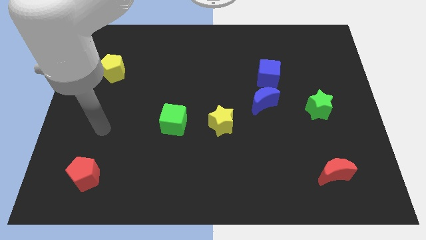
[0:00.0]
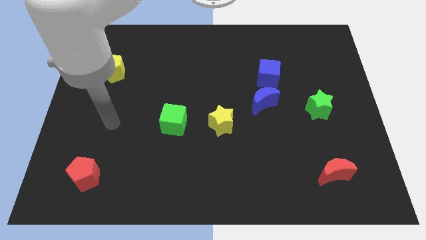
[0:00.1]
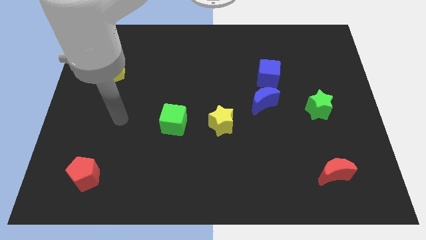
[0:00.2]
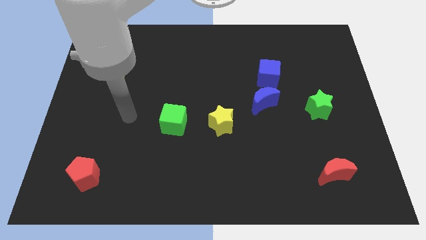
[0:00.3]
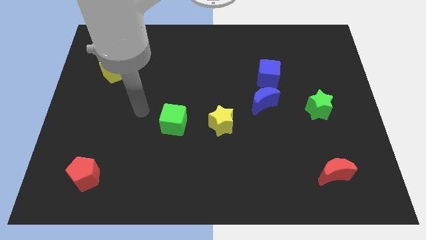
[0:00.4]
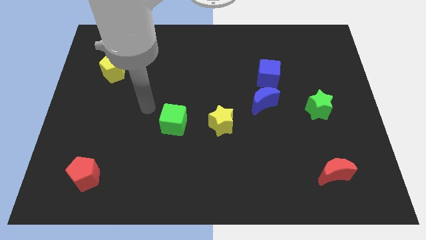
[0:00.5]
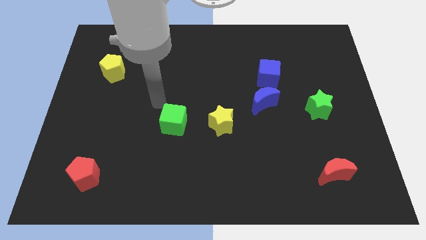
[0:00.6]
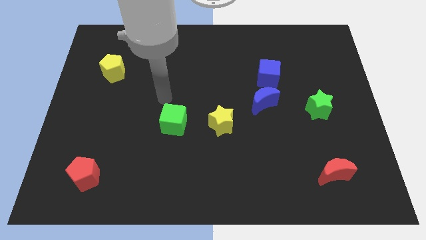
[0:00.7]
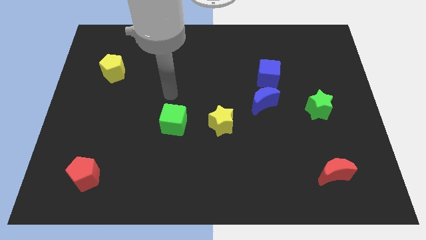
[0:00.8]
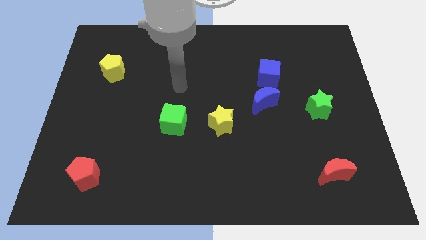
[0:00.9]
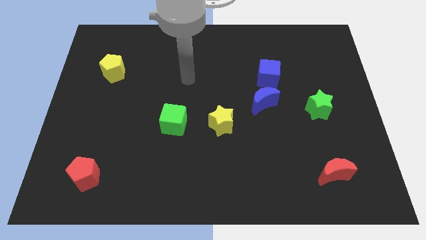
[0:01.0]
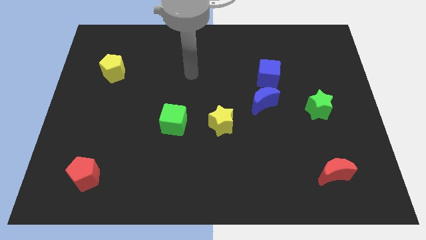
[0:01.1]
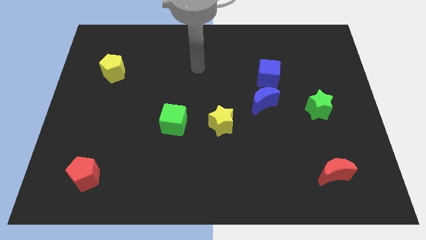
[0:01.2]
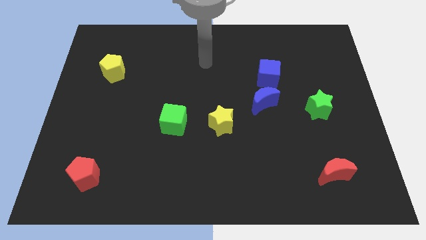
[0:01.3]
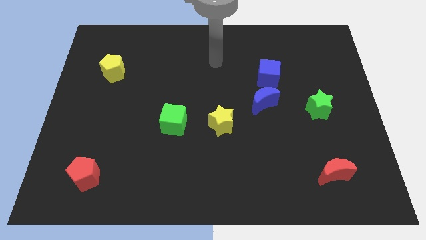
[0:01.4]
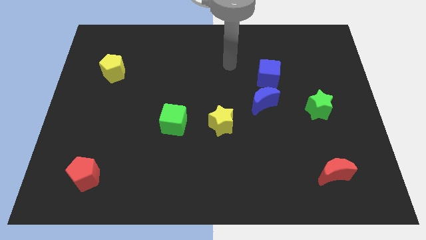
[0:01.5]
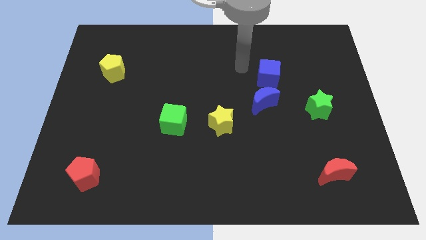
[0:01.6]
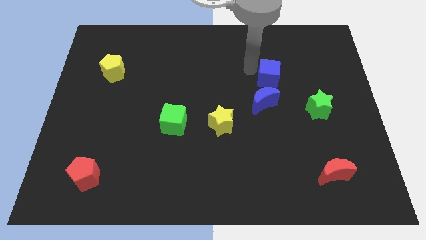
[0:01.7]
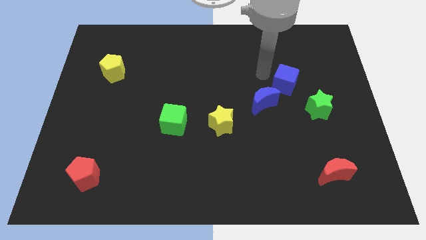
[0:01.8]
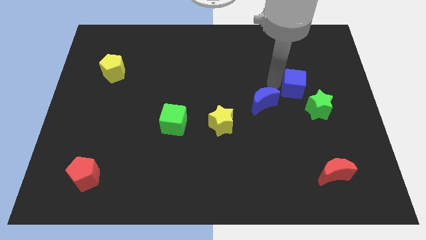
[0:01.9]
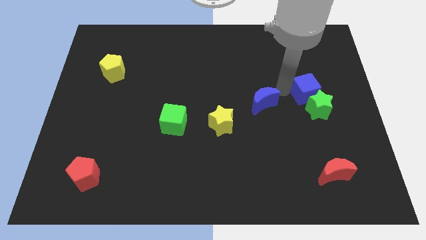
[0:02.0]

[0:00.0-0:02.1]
pull the blue moon apart from the blue cube

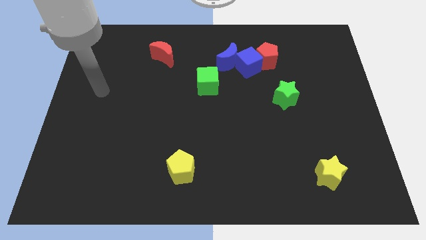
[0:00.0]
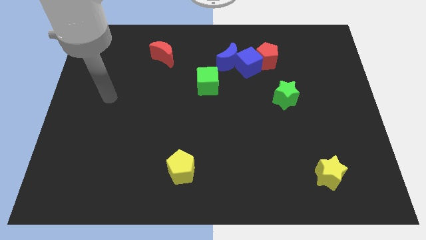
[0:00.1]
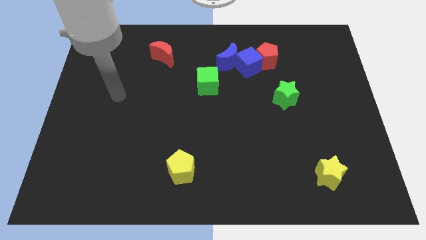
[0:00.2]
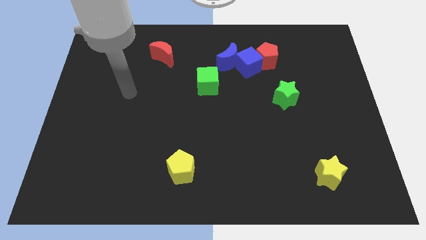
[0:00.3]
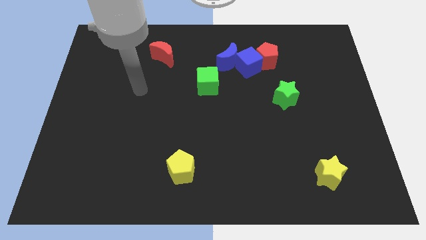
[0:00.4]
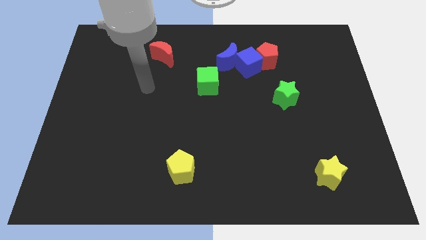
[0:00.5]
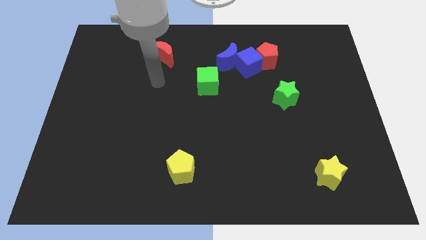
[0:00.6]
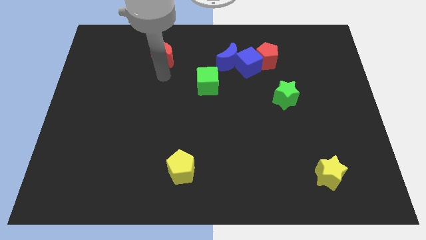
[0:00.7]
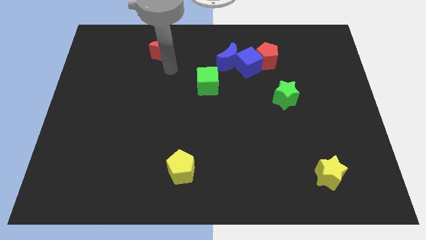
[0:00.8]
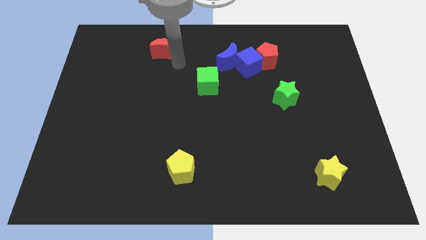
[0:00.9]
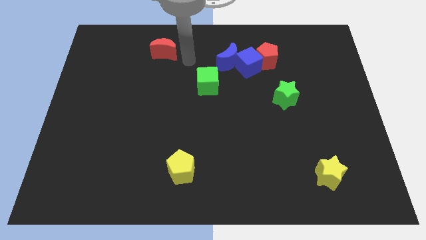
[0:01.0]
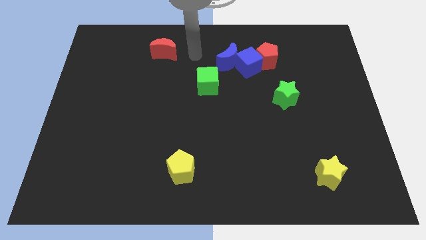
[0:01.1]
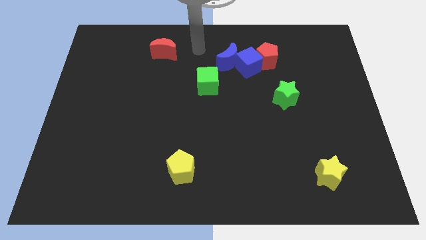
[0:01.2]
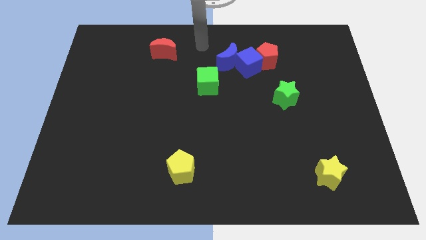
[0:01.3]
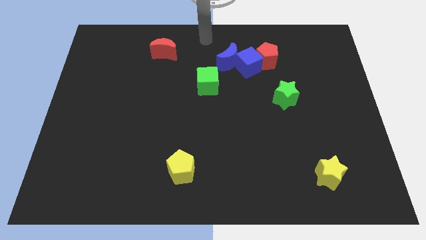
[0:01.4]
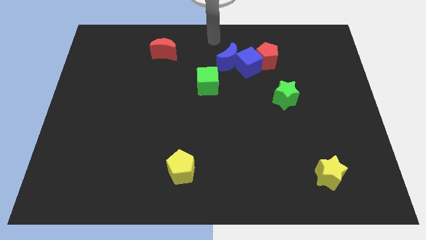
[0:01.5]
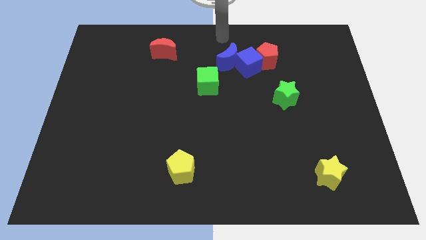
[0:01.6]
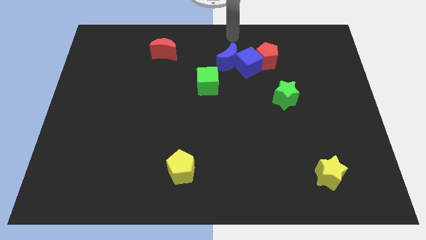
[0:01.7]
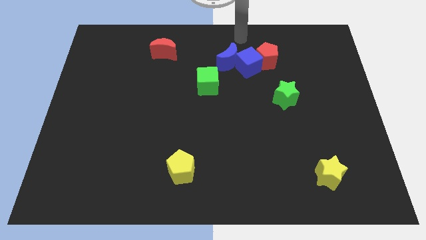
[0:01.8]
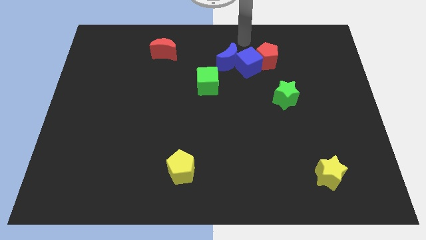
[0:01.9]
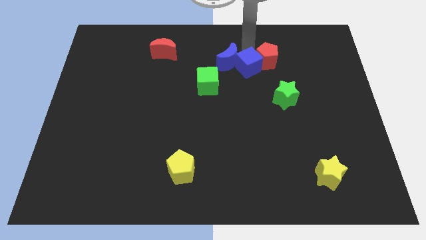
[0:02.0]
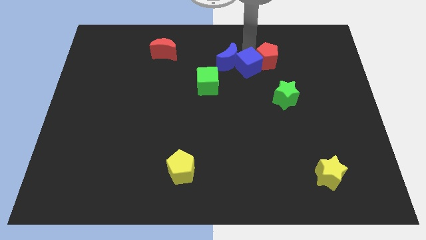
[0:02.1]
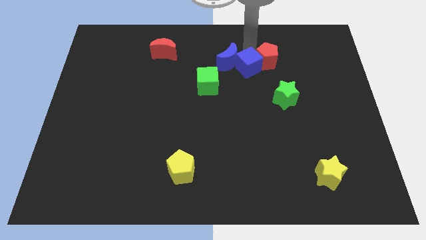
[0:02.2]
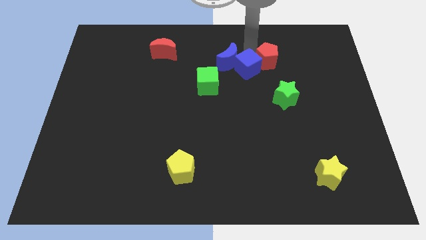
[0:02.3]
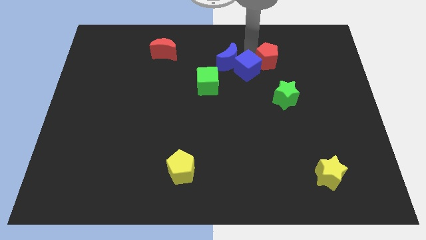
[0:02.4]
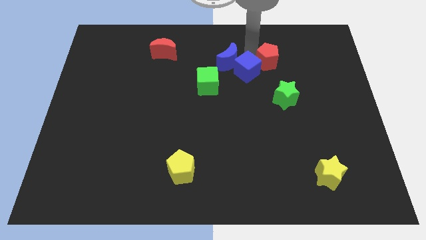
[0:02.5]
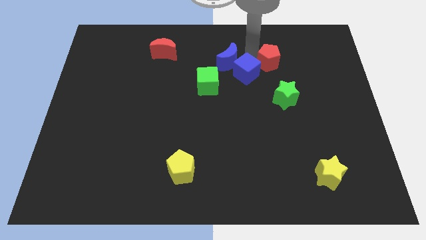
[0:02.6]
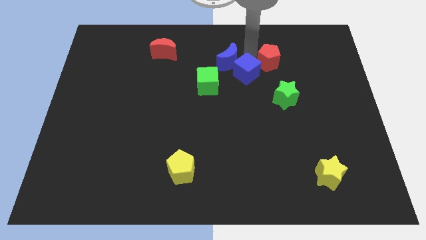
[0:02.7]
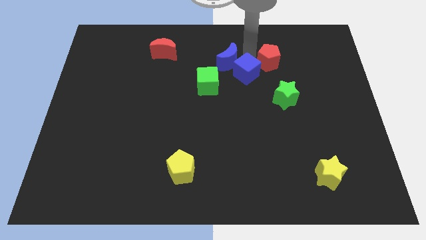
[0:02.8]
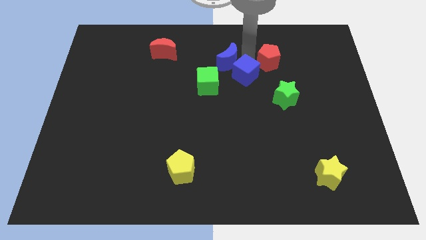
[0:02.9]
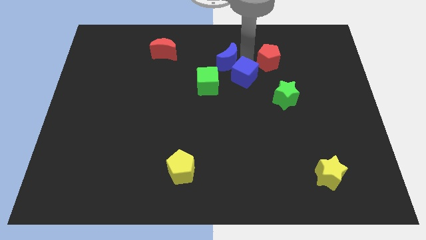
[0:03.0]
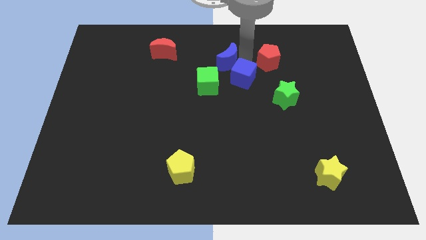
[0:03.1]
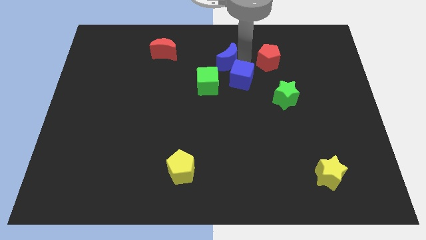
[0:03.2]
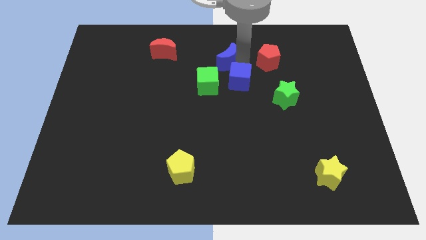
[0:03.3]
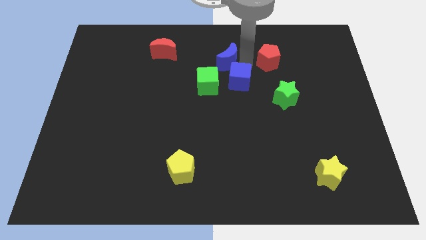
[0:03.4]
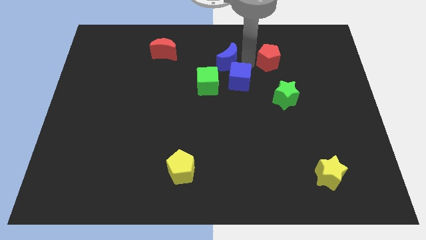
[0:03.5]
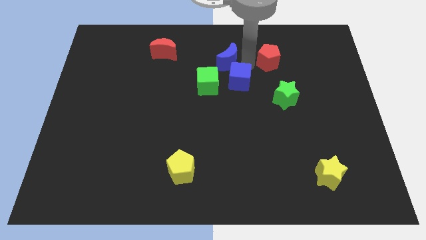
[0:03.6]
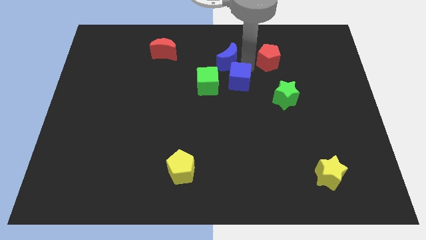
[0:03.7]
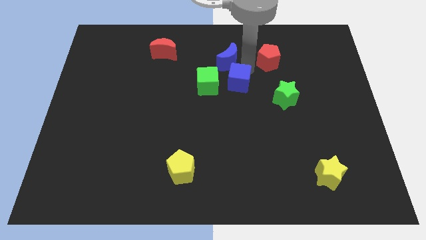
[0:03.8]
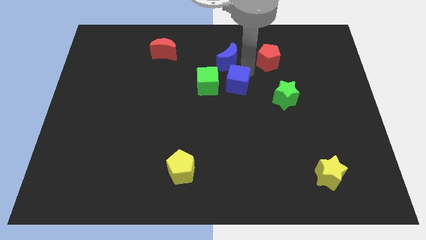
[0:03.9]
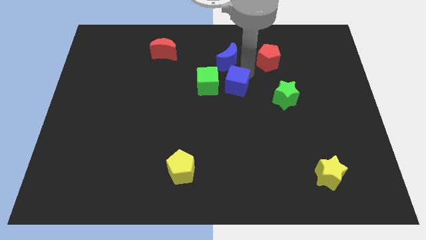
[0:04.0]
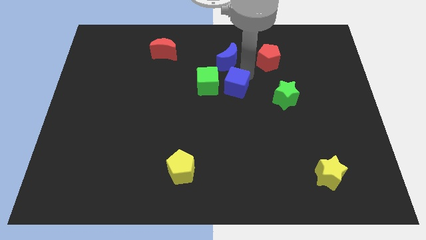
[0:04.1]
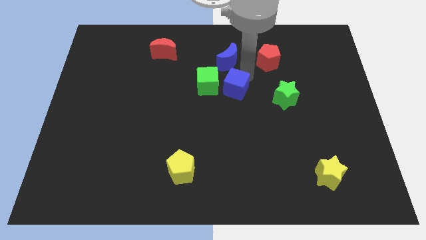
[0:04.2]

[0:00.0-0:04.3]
separate the blue cube from the blue moon and red pentagon

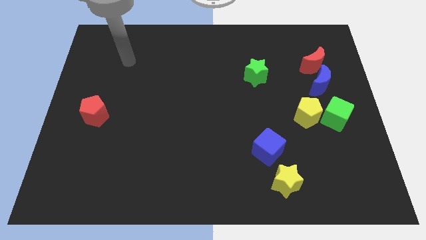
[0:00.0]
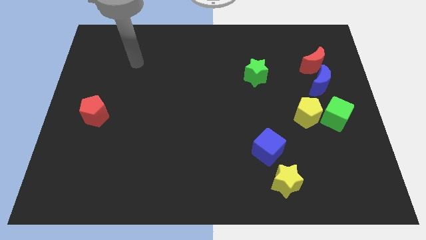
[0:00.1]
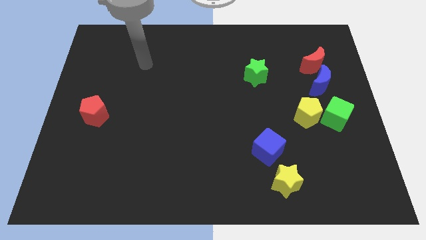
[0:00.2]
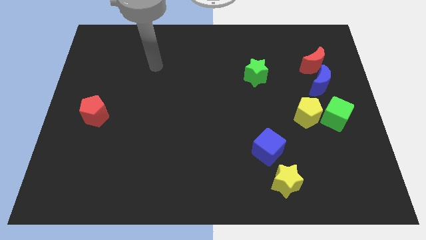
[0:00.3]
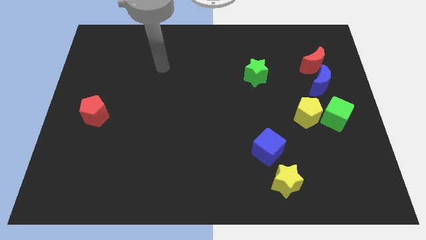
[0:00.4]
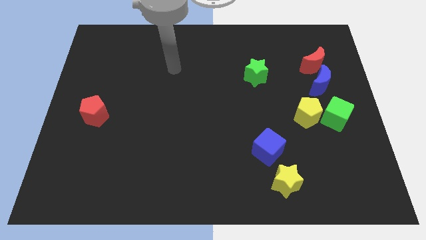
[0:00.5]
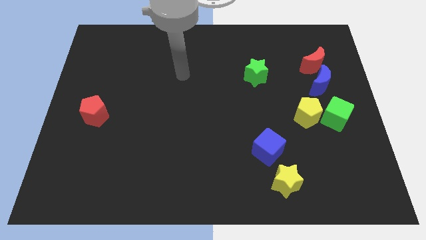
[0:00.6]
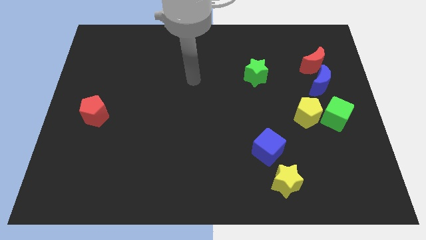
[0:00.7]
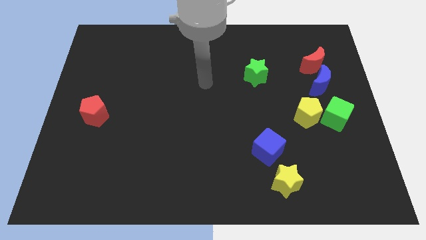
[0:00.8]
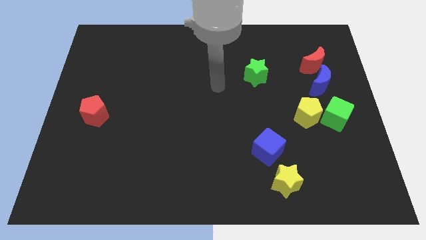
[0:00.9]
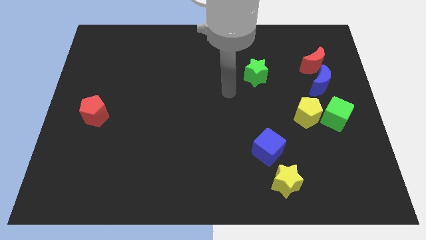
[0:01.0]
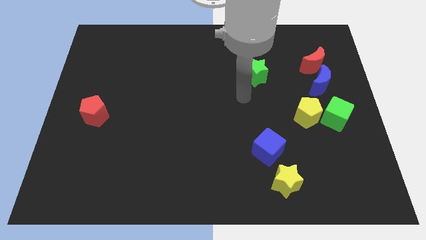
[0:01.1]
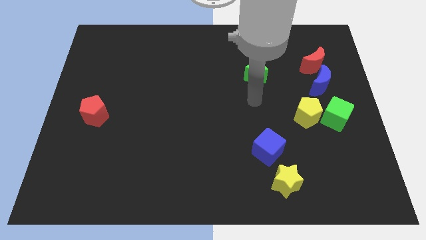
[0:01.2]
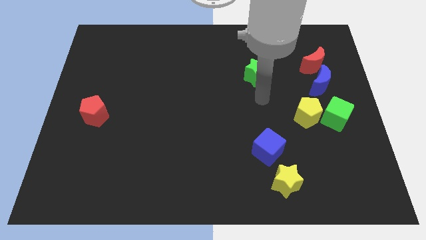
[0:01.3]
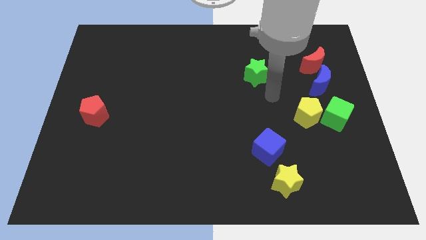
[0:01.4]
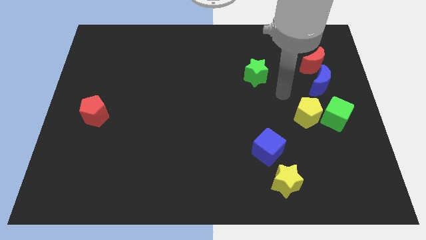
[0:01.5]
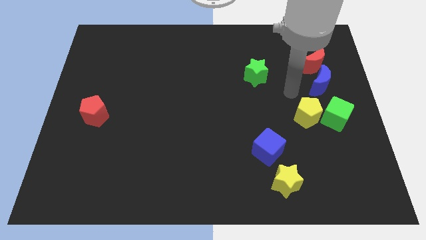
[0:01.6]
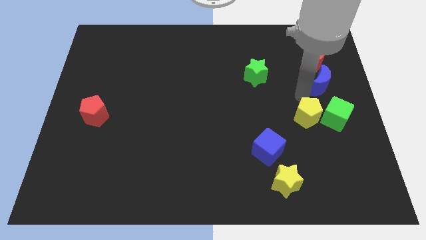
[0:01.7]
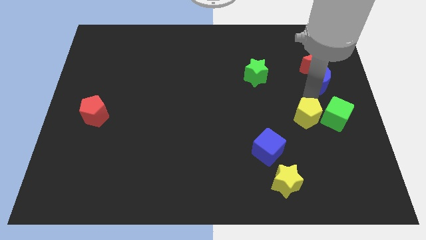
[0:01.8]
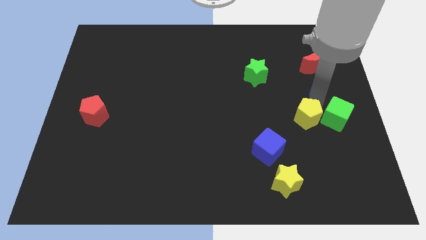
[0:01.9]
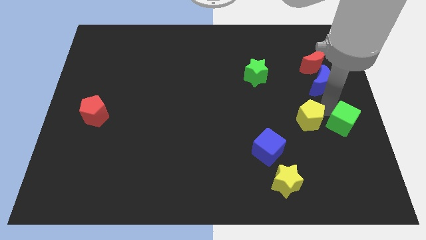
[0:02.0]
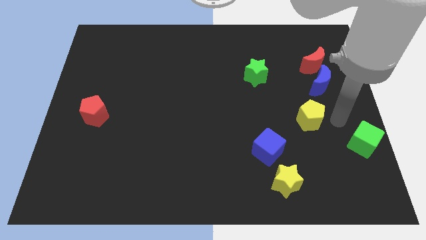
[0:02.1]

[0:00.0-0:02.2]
separate the yellow pentagon from the green cube

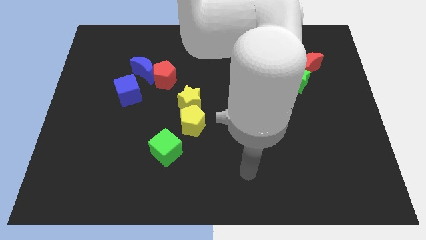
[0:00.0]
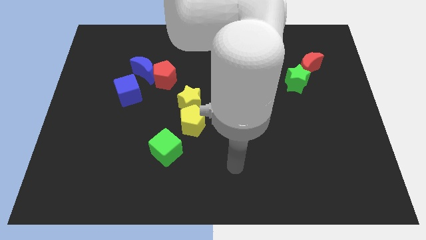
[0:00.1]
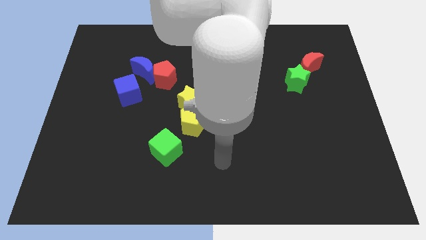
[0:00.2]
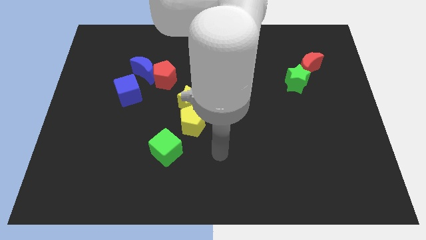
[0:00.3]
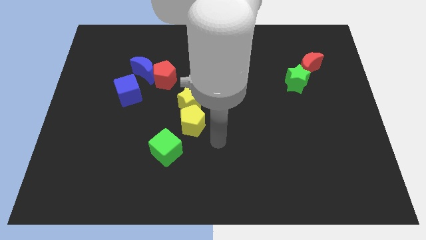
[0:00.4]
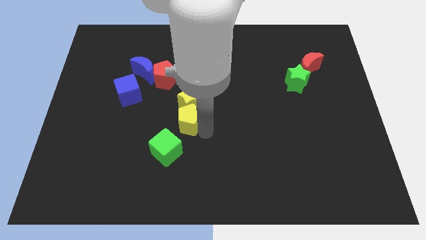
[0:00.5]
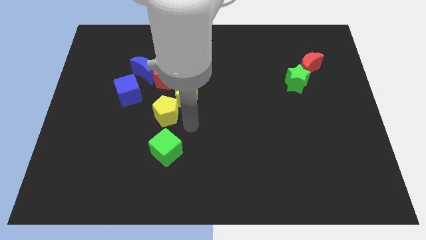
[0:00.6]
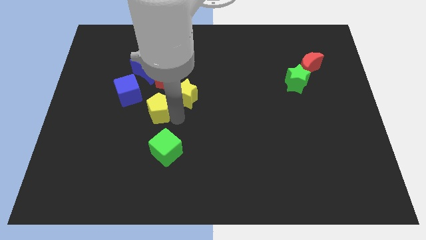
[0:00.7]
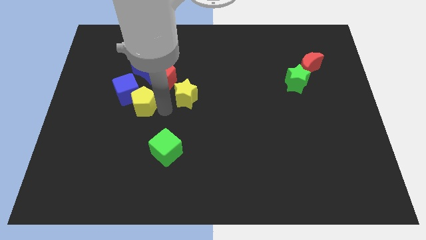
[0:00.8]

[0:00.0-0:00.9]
pull the yellow star apart from the yellow pentagon
